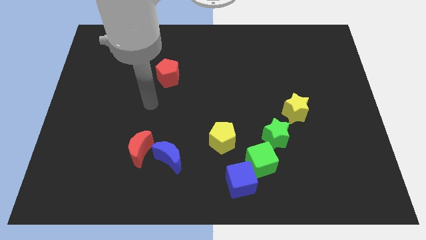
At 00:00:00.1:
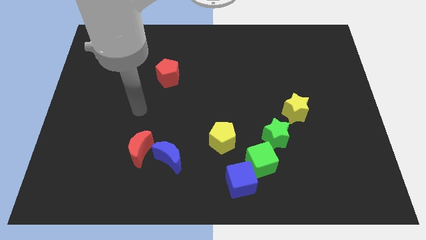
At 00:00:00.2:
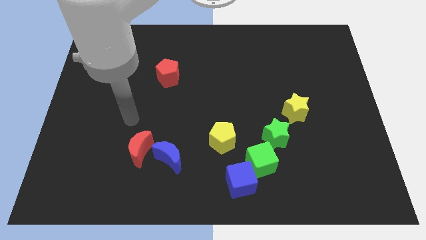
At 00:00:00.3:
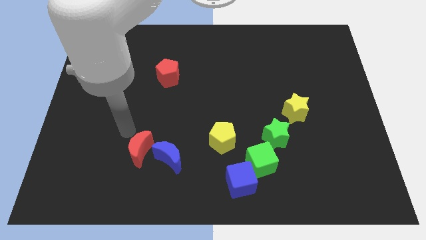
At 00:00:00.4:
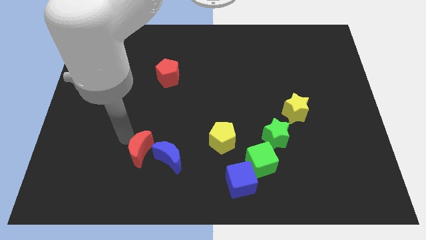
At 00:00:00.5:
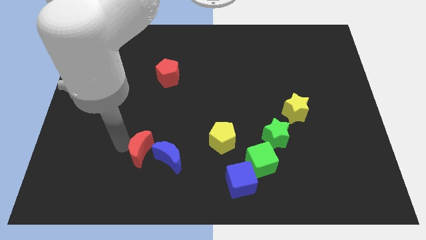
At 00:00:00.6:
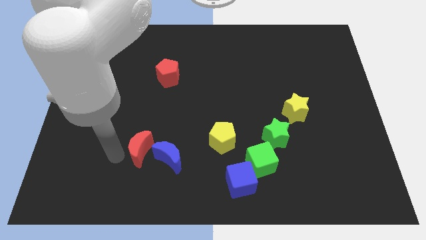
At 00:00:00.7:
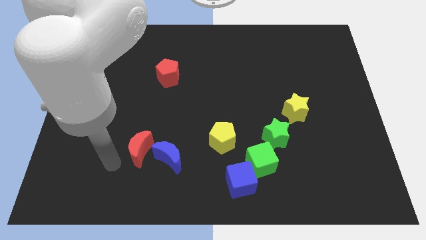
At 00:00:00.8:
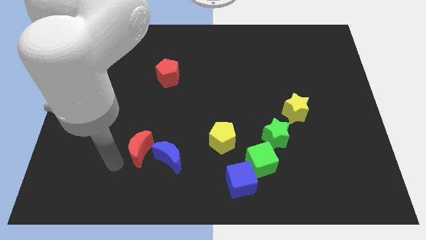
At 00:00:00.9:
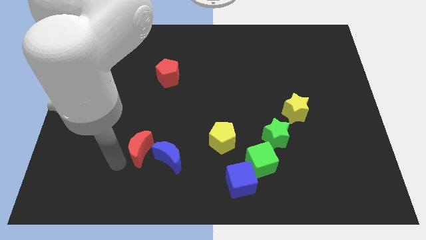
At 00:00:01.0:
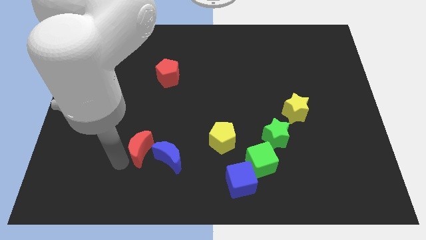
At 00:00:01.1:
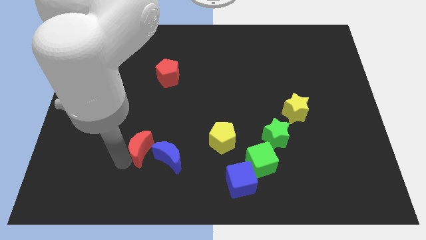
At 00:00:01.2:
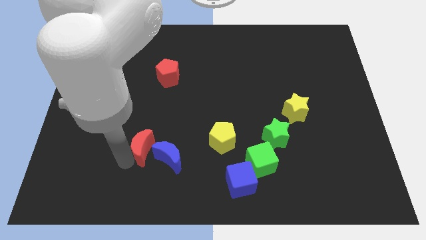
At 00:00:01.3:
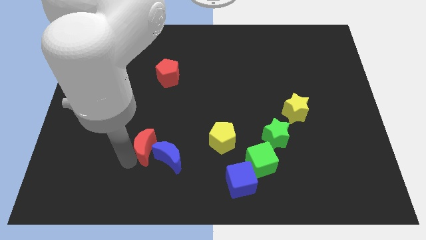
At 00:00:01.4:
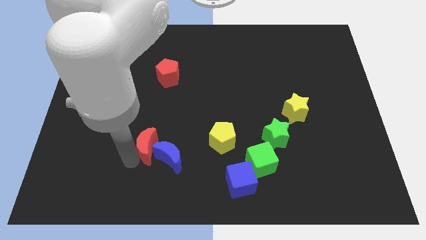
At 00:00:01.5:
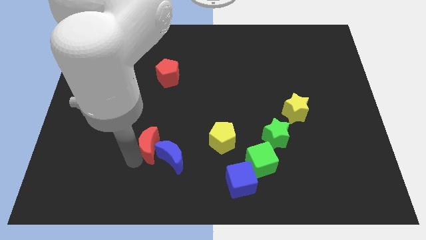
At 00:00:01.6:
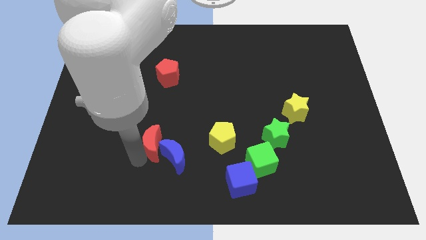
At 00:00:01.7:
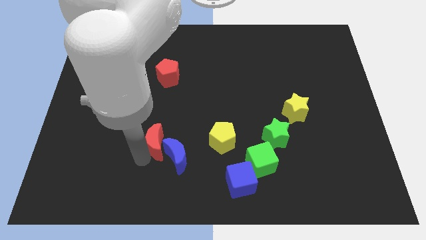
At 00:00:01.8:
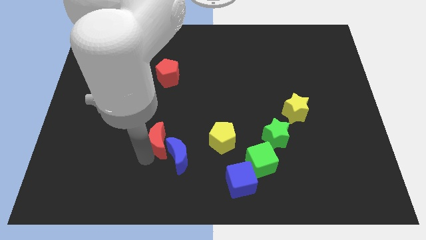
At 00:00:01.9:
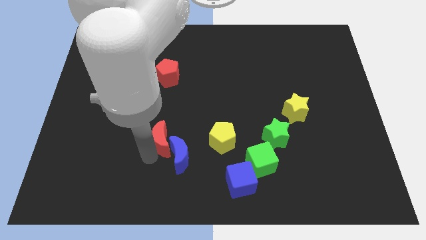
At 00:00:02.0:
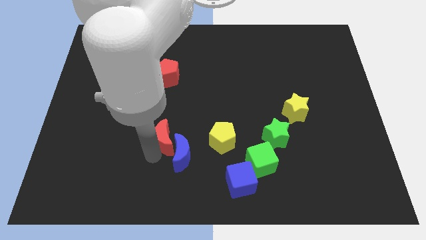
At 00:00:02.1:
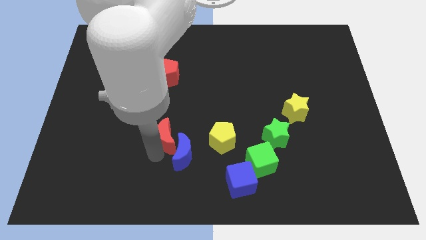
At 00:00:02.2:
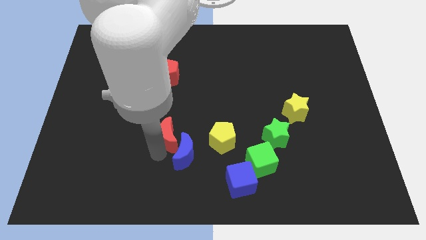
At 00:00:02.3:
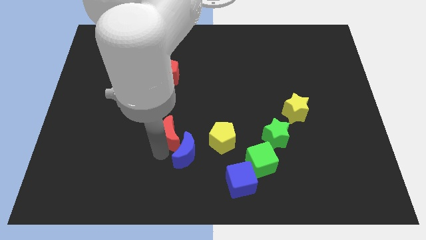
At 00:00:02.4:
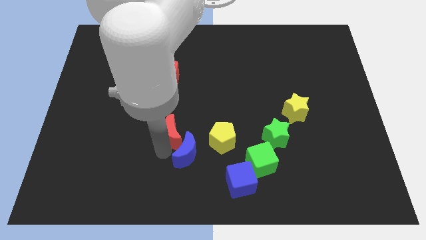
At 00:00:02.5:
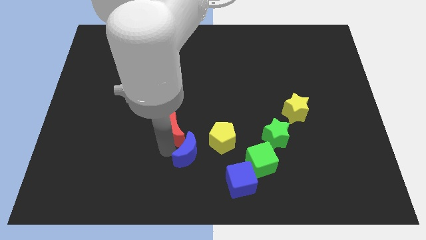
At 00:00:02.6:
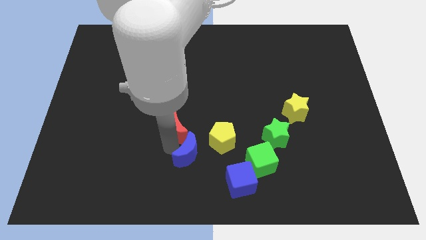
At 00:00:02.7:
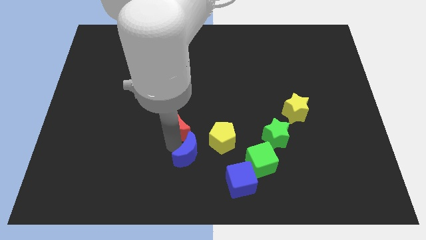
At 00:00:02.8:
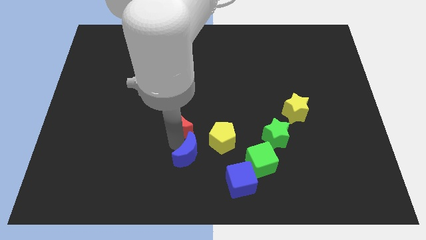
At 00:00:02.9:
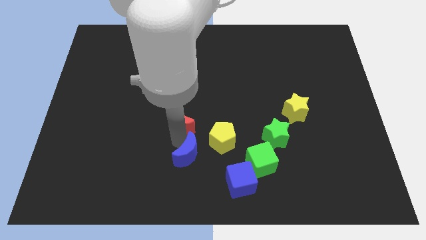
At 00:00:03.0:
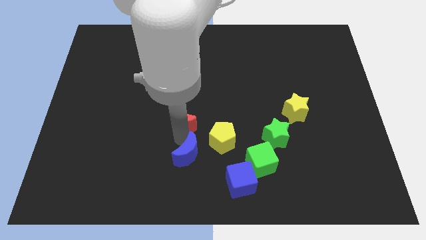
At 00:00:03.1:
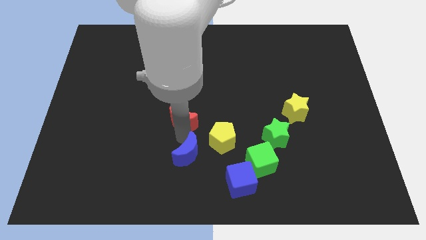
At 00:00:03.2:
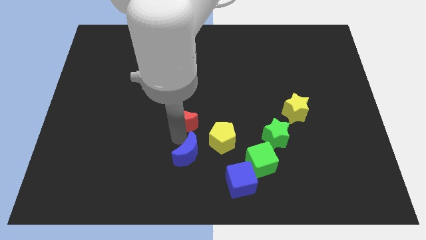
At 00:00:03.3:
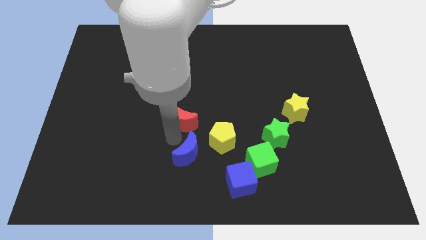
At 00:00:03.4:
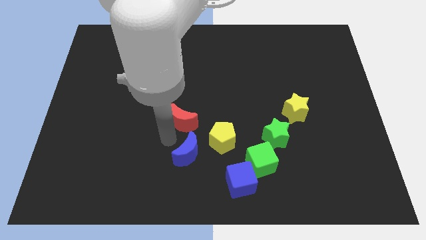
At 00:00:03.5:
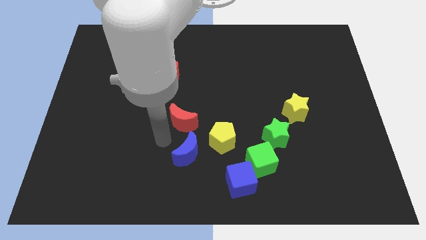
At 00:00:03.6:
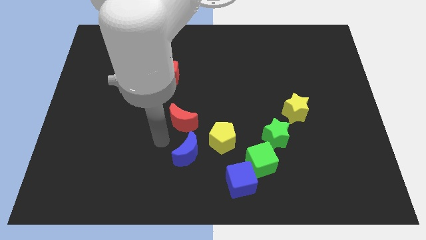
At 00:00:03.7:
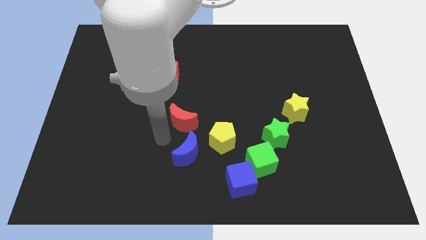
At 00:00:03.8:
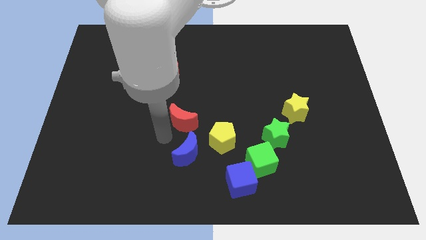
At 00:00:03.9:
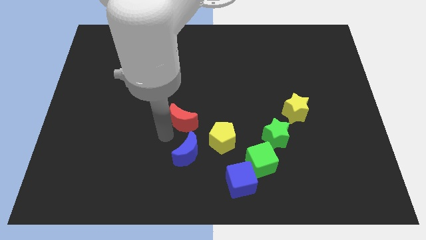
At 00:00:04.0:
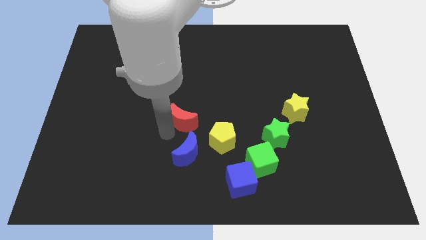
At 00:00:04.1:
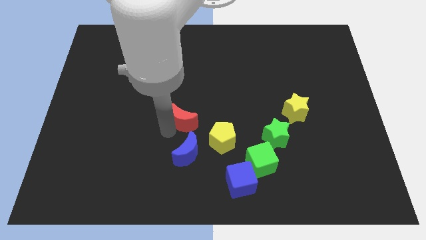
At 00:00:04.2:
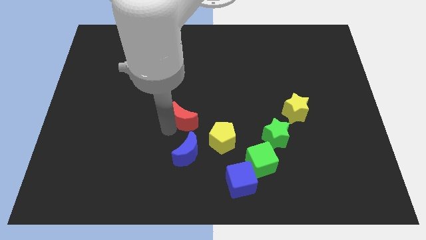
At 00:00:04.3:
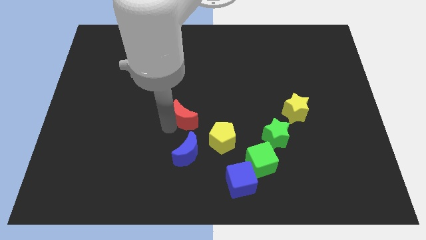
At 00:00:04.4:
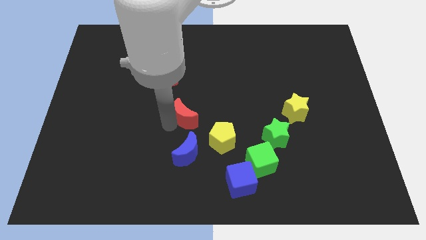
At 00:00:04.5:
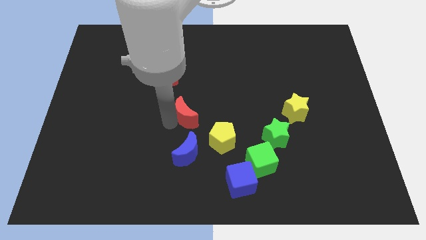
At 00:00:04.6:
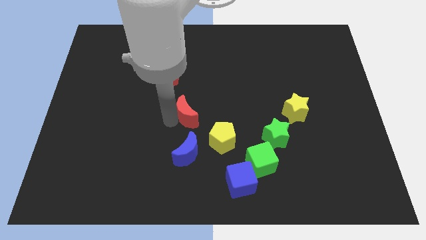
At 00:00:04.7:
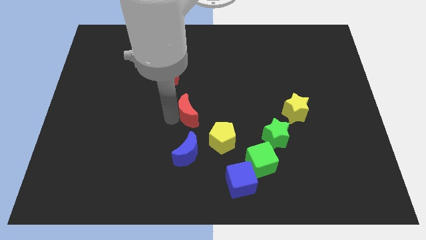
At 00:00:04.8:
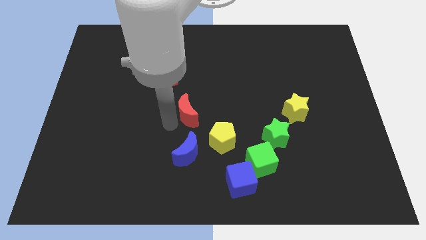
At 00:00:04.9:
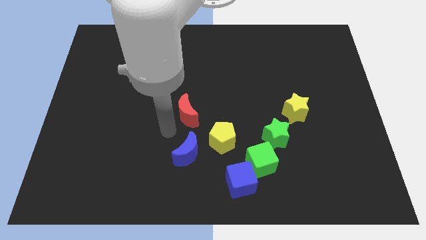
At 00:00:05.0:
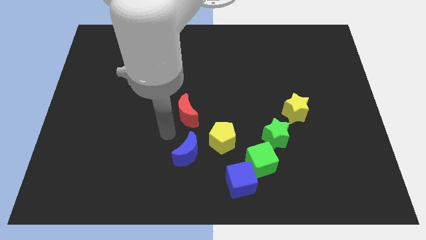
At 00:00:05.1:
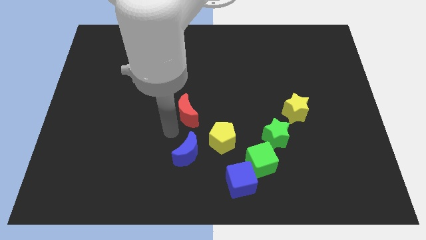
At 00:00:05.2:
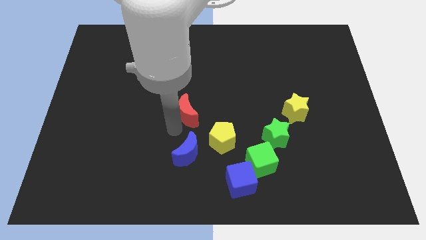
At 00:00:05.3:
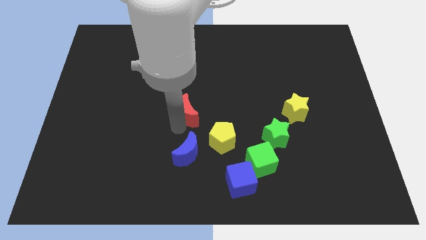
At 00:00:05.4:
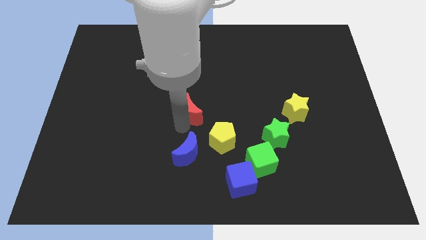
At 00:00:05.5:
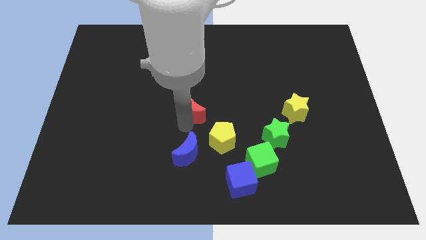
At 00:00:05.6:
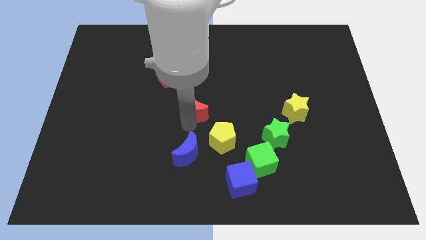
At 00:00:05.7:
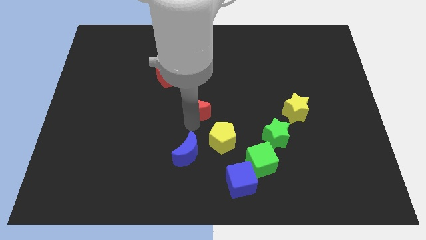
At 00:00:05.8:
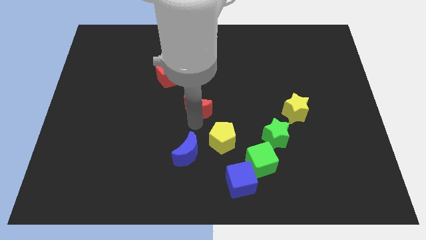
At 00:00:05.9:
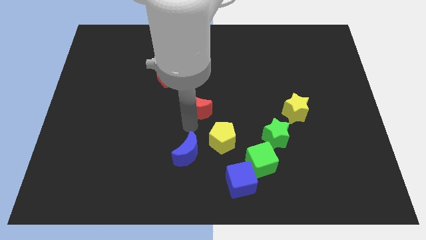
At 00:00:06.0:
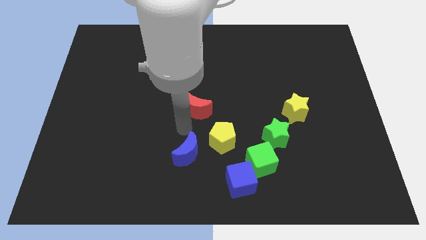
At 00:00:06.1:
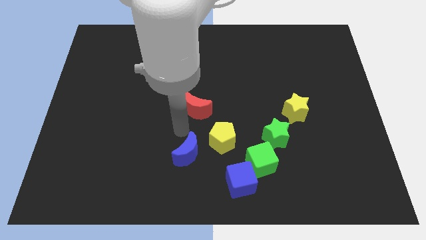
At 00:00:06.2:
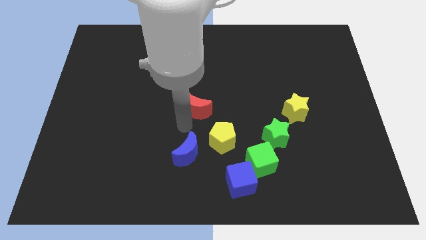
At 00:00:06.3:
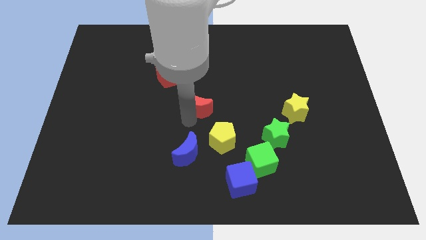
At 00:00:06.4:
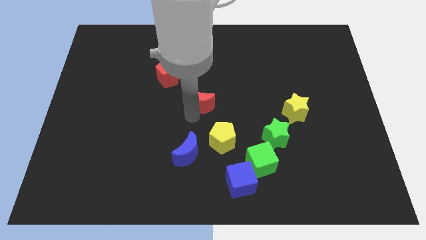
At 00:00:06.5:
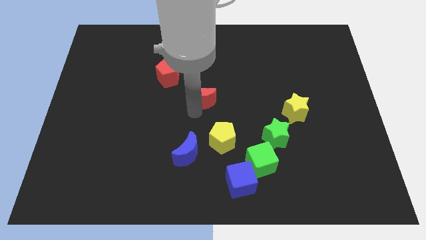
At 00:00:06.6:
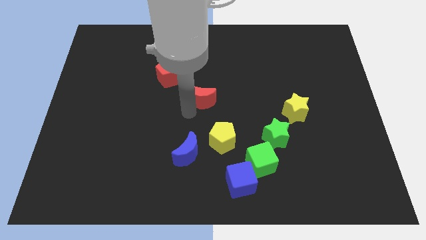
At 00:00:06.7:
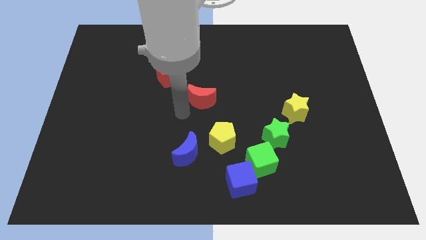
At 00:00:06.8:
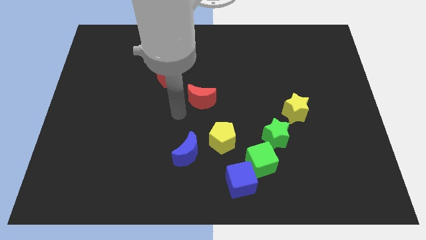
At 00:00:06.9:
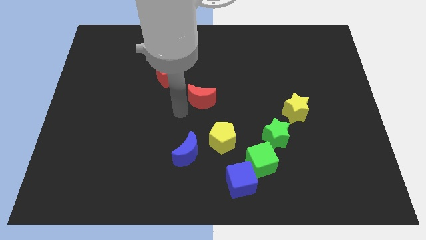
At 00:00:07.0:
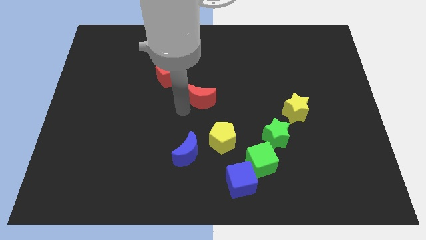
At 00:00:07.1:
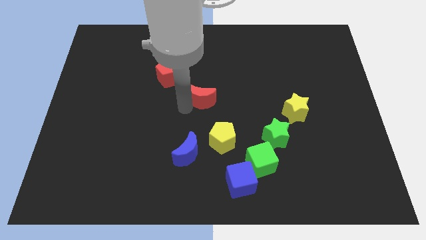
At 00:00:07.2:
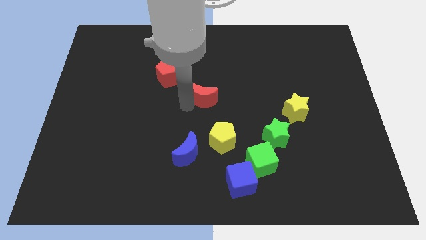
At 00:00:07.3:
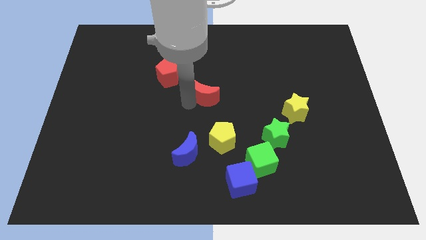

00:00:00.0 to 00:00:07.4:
push the red moon diagonally upwards and to the right

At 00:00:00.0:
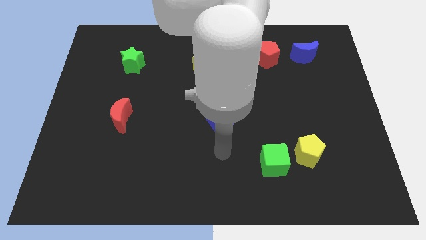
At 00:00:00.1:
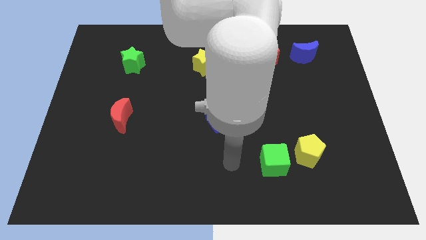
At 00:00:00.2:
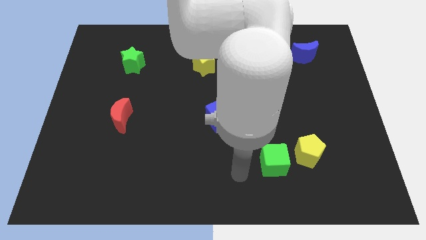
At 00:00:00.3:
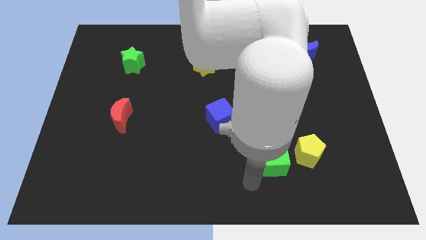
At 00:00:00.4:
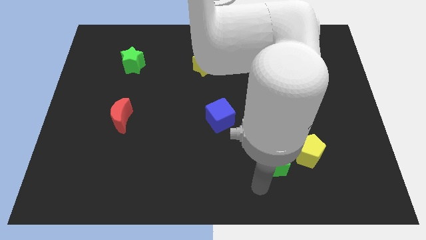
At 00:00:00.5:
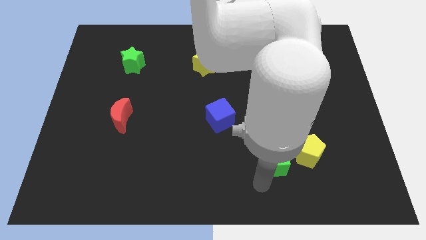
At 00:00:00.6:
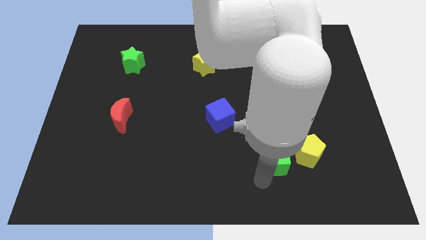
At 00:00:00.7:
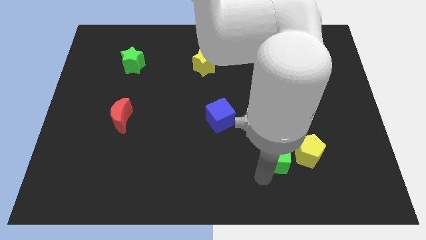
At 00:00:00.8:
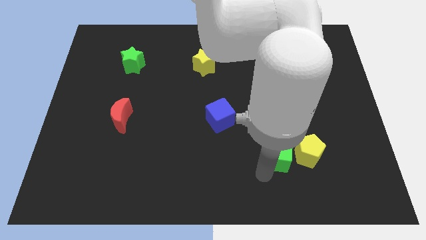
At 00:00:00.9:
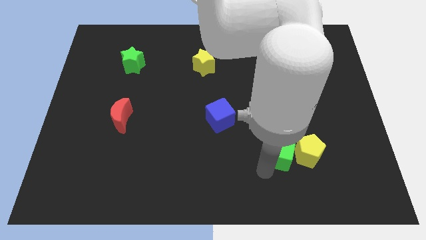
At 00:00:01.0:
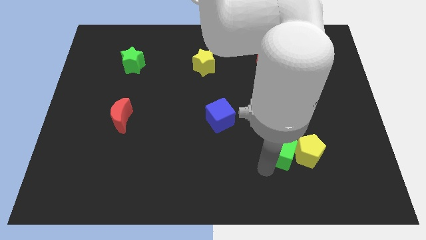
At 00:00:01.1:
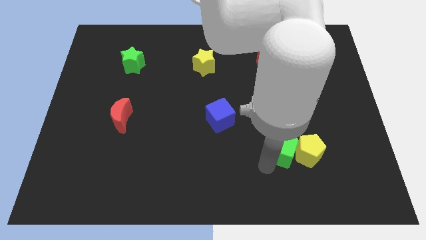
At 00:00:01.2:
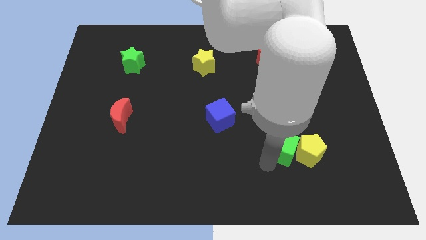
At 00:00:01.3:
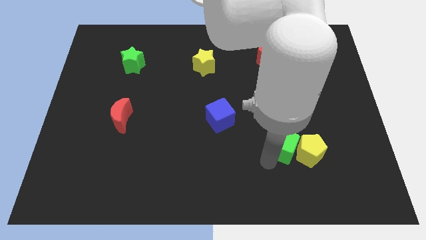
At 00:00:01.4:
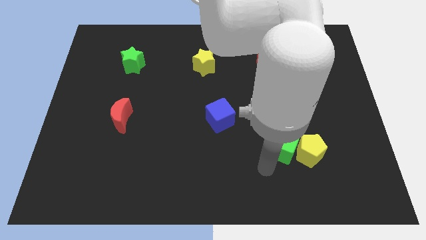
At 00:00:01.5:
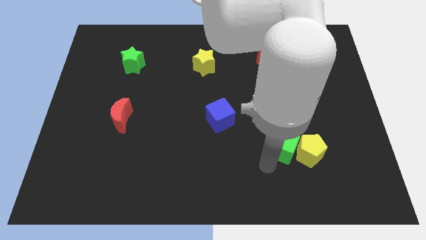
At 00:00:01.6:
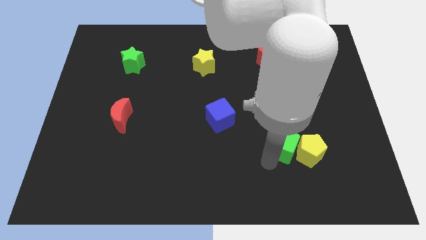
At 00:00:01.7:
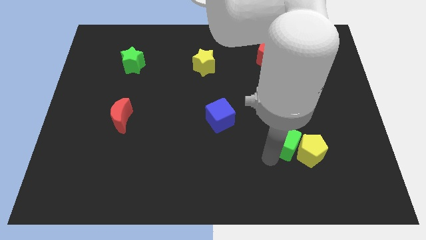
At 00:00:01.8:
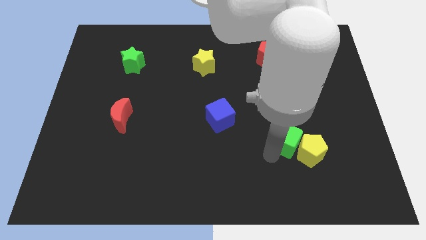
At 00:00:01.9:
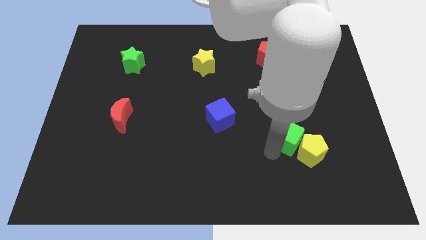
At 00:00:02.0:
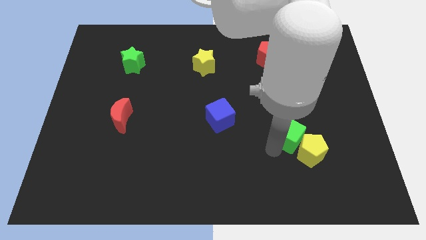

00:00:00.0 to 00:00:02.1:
slightly move the green cube diagonally up and to the right
